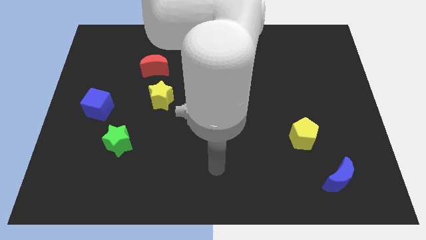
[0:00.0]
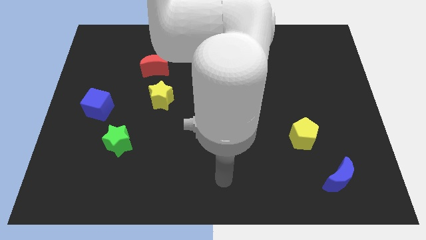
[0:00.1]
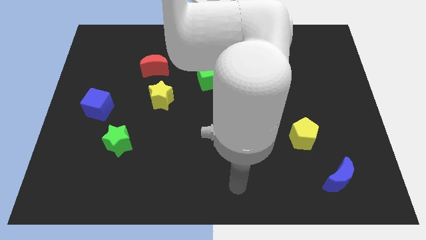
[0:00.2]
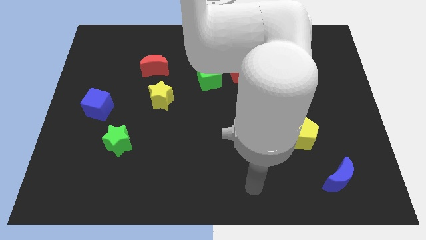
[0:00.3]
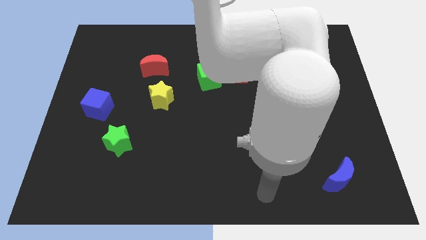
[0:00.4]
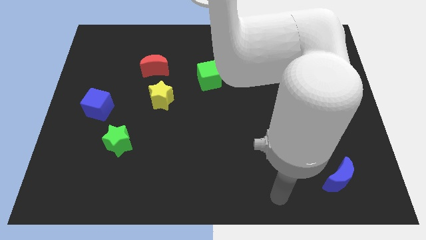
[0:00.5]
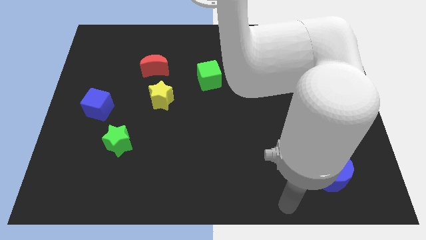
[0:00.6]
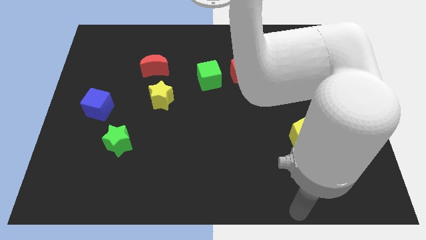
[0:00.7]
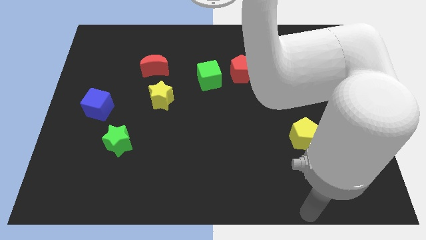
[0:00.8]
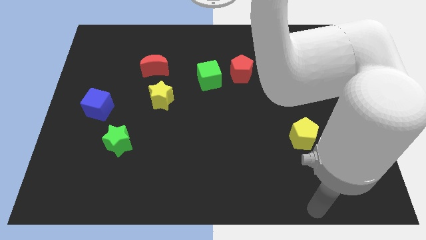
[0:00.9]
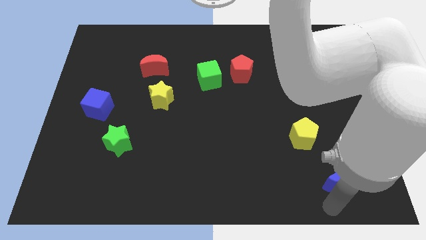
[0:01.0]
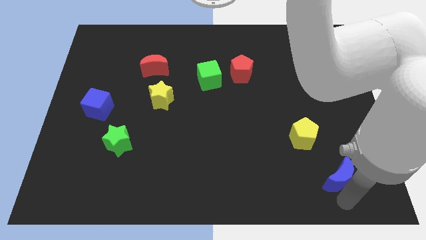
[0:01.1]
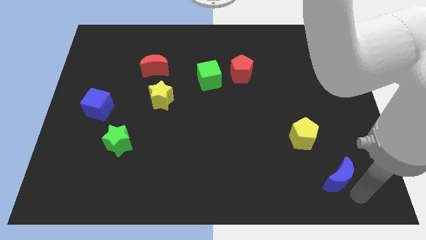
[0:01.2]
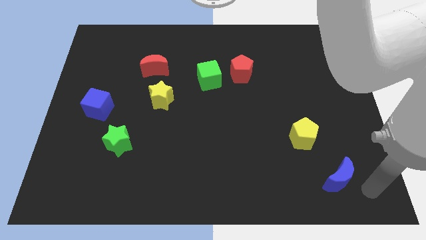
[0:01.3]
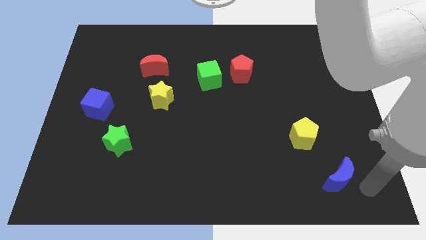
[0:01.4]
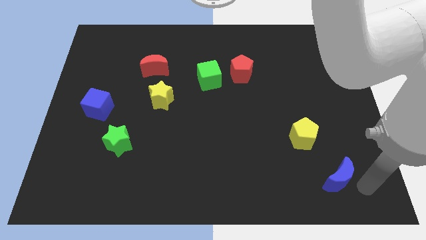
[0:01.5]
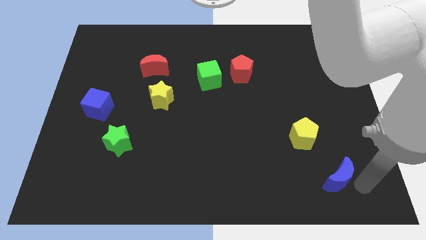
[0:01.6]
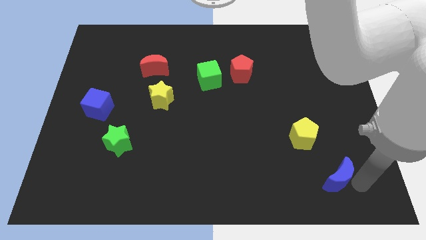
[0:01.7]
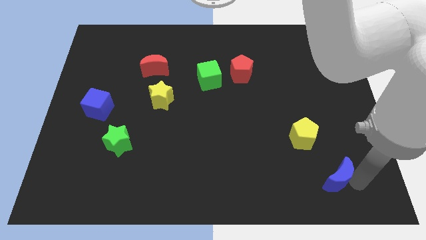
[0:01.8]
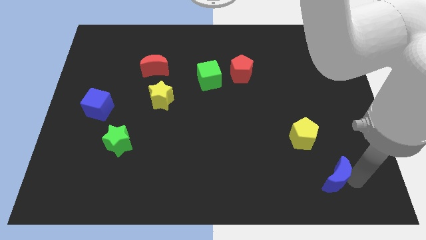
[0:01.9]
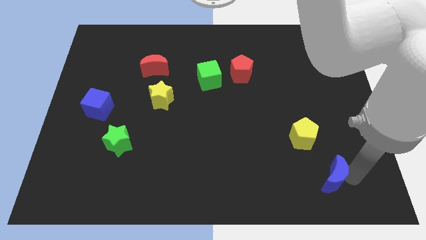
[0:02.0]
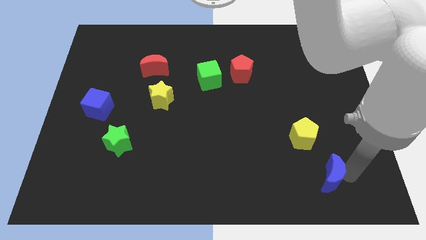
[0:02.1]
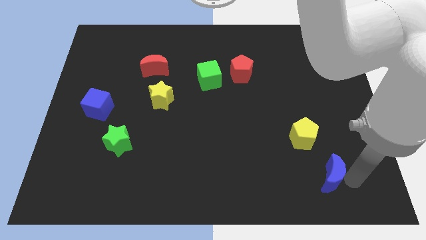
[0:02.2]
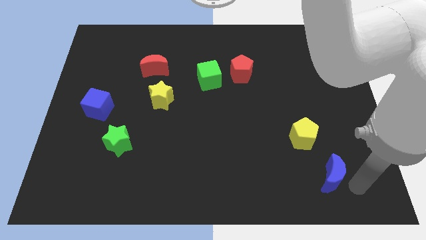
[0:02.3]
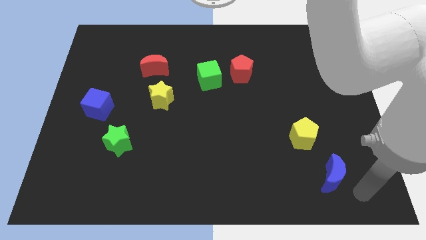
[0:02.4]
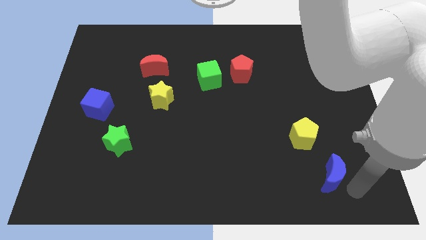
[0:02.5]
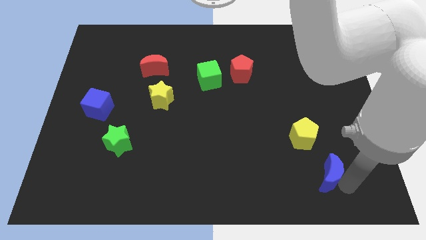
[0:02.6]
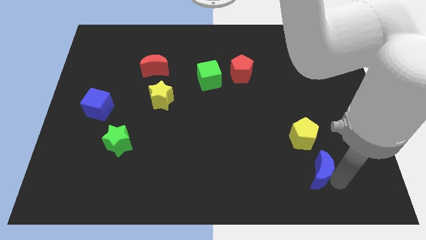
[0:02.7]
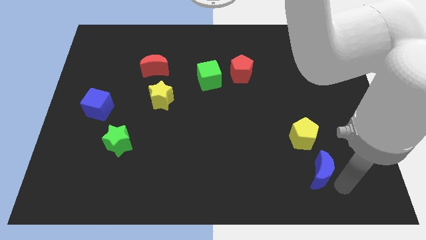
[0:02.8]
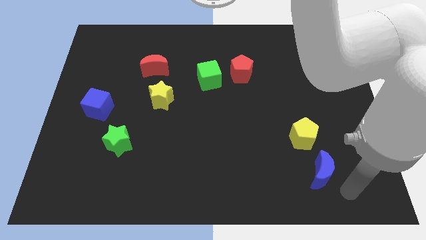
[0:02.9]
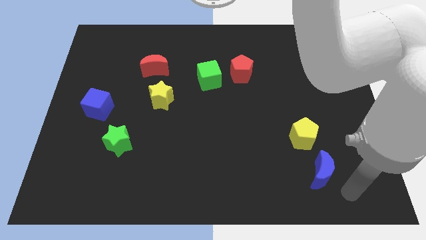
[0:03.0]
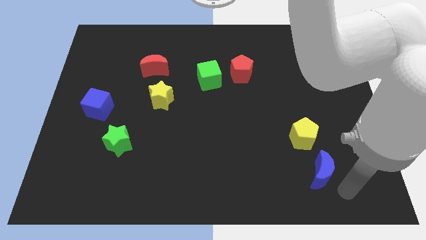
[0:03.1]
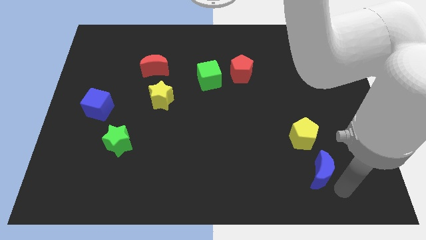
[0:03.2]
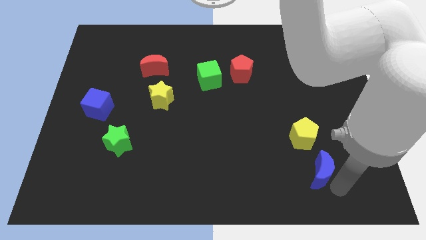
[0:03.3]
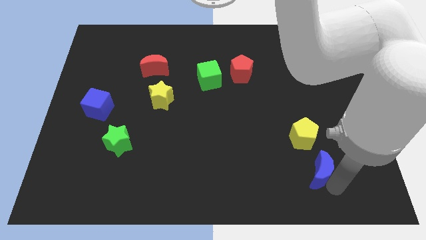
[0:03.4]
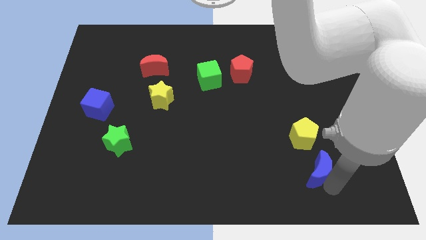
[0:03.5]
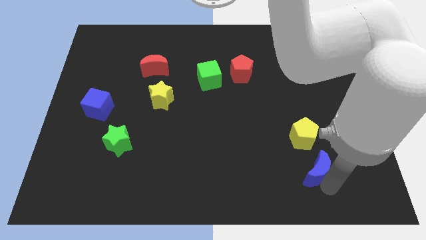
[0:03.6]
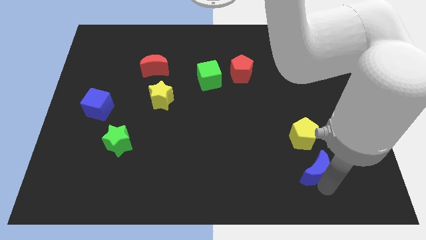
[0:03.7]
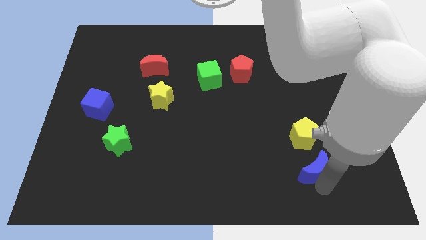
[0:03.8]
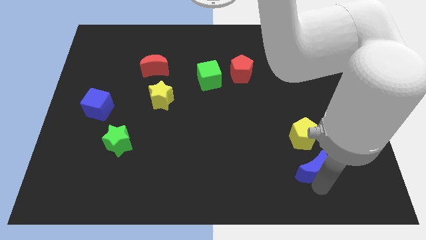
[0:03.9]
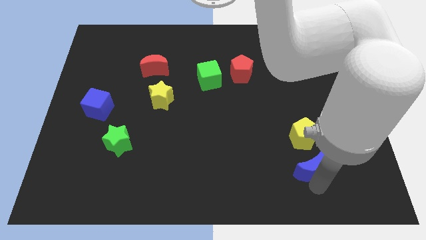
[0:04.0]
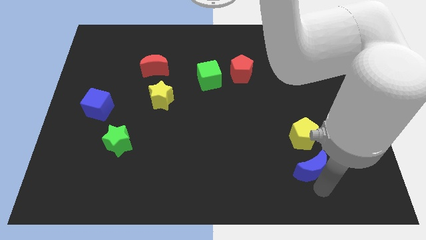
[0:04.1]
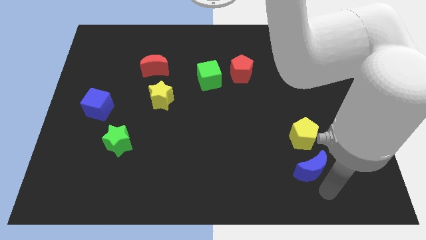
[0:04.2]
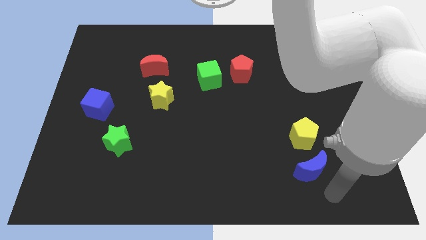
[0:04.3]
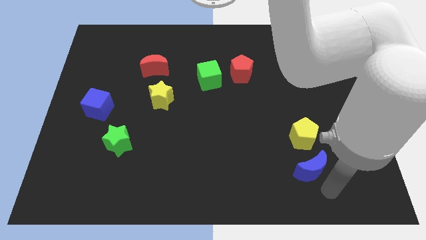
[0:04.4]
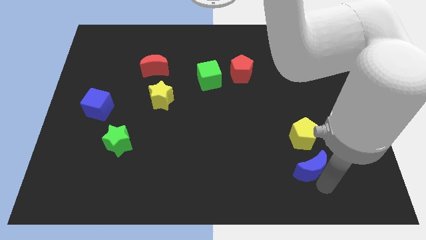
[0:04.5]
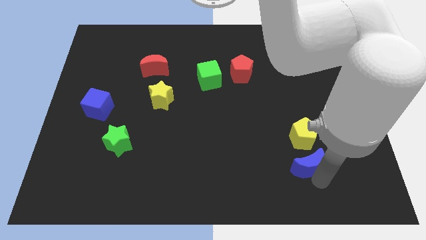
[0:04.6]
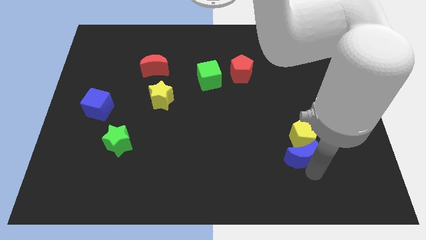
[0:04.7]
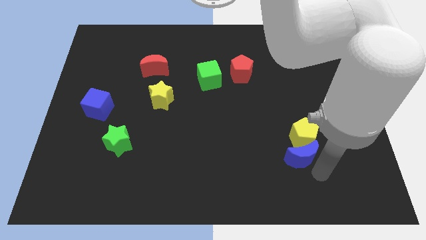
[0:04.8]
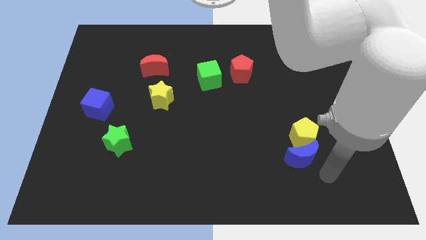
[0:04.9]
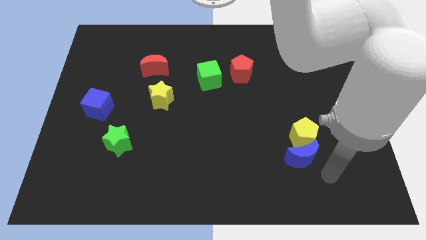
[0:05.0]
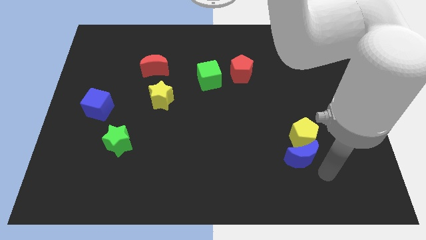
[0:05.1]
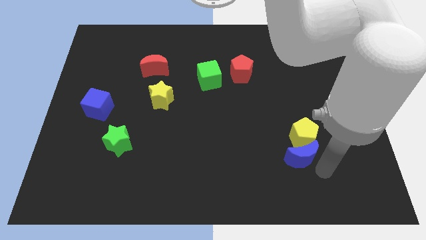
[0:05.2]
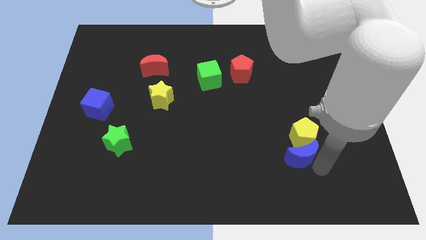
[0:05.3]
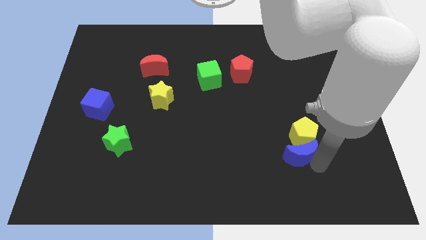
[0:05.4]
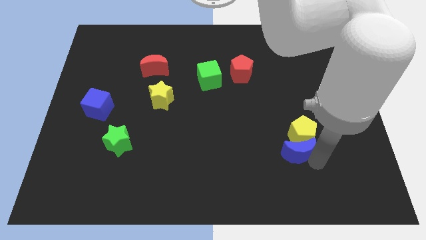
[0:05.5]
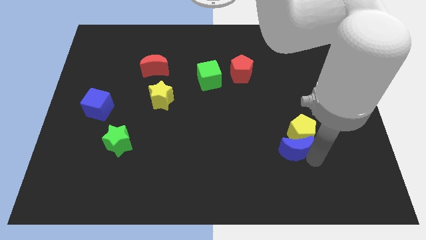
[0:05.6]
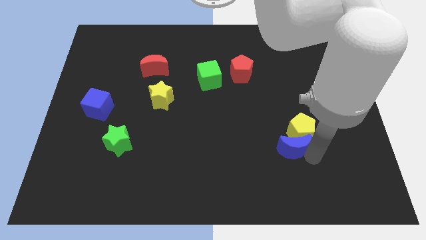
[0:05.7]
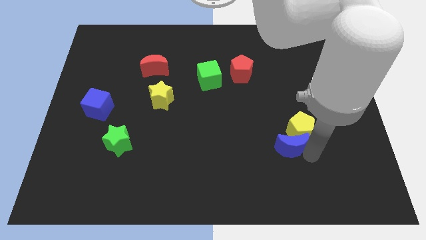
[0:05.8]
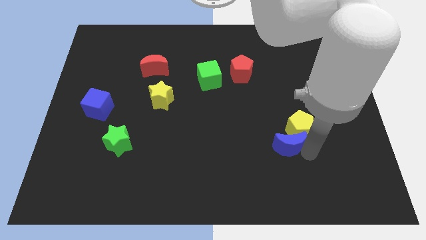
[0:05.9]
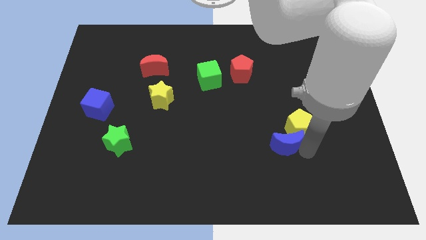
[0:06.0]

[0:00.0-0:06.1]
put the blue moon to the left of the yellow pentagon

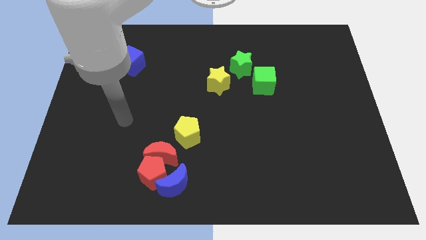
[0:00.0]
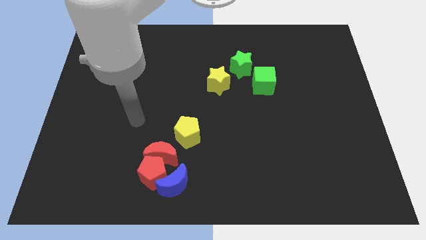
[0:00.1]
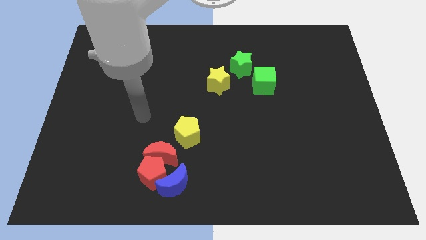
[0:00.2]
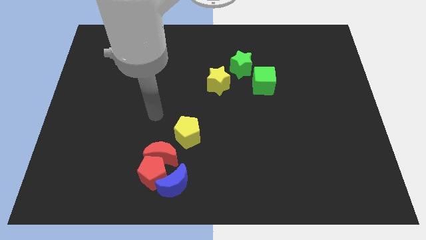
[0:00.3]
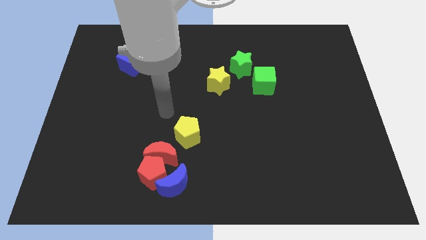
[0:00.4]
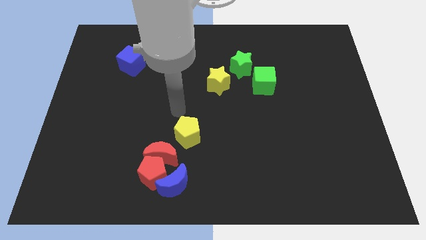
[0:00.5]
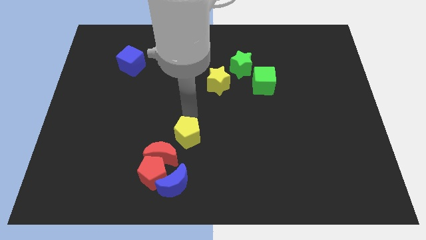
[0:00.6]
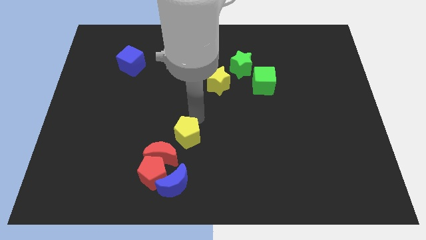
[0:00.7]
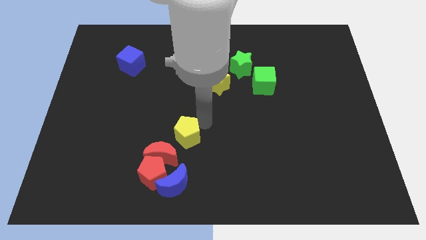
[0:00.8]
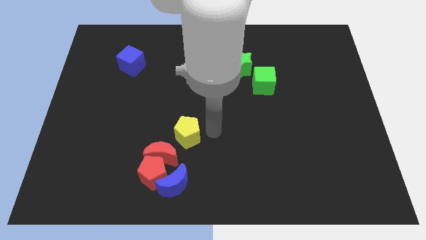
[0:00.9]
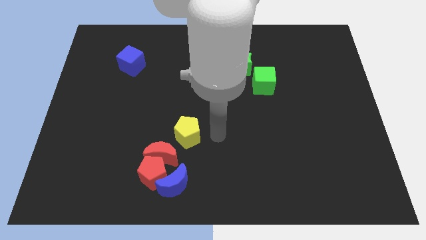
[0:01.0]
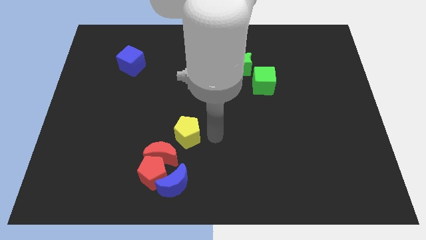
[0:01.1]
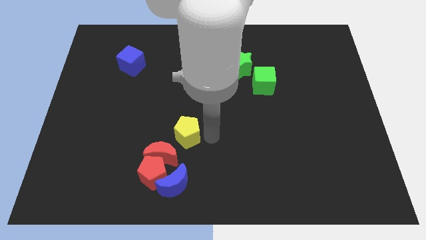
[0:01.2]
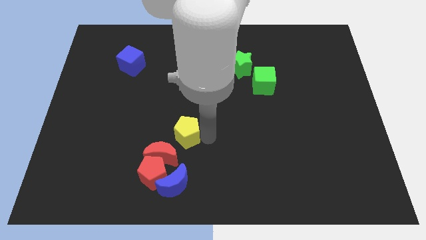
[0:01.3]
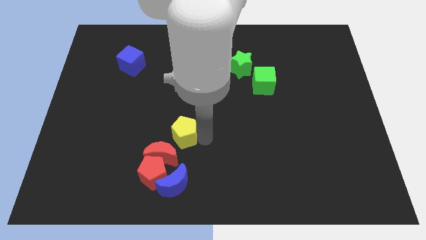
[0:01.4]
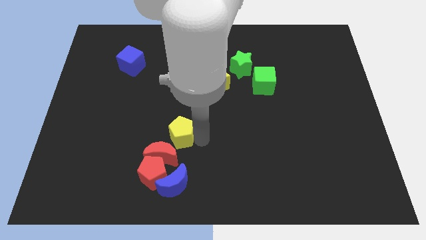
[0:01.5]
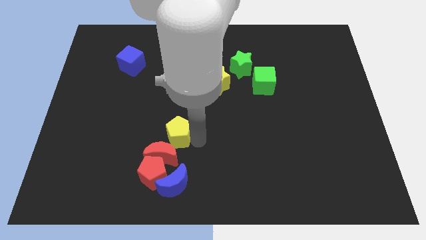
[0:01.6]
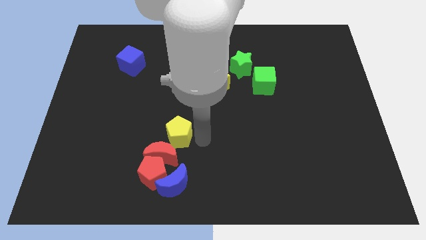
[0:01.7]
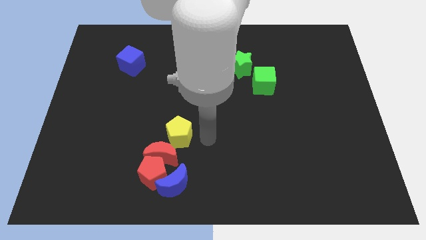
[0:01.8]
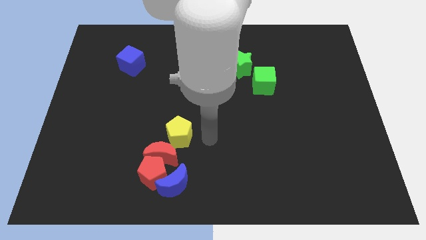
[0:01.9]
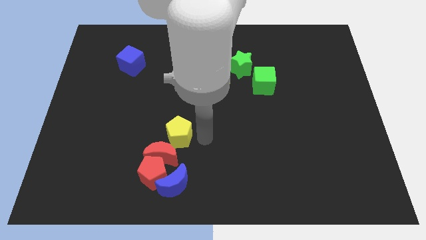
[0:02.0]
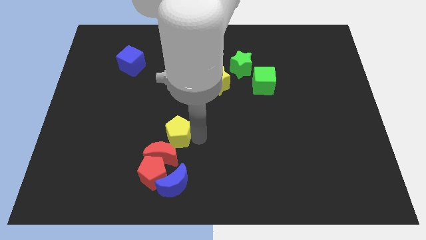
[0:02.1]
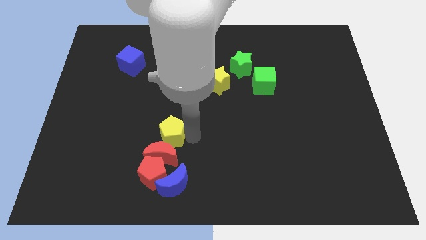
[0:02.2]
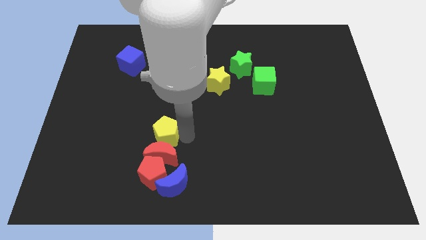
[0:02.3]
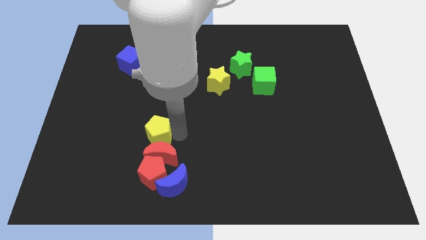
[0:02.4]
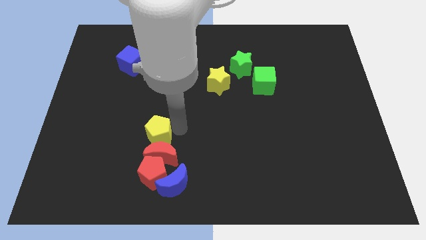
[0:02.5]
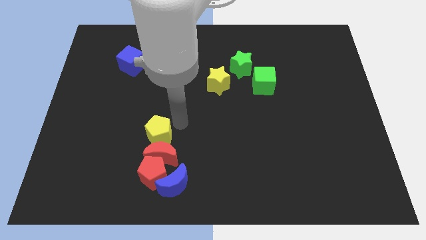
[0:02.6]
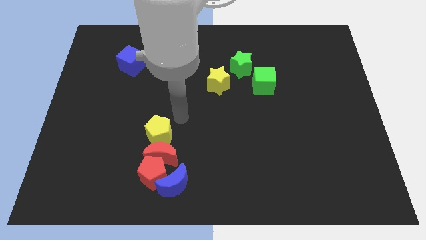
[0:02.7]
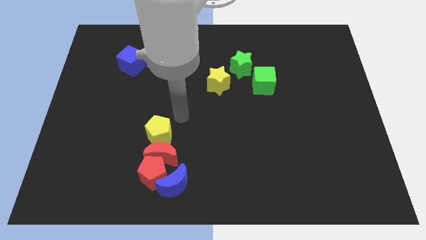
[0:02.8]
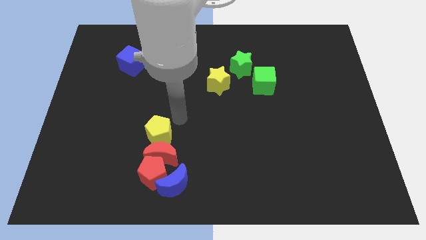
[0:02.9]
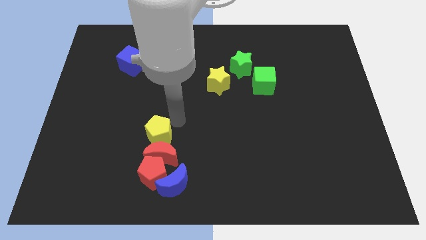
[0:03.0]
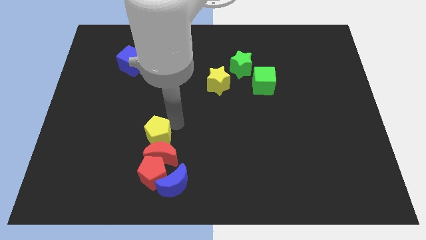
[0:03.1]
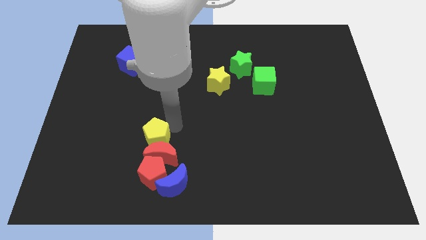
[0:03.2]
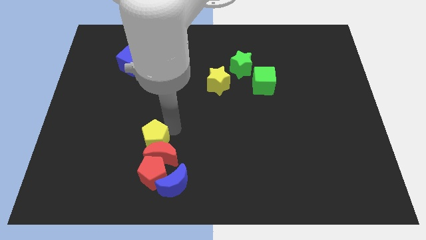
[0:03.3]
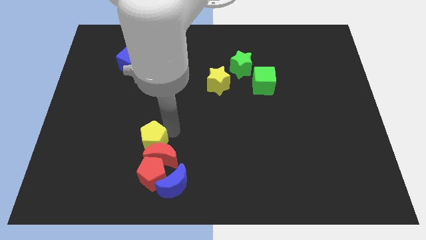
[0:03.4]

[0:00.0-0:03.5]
move the yellow pentagon diagonally up and to the left of the blue moon
